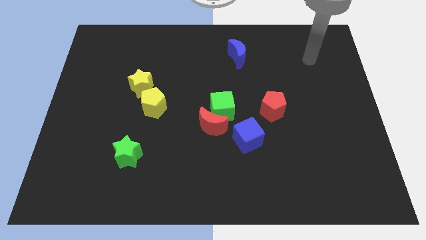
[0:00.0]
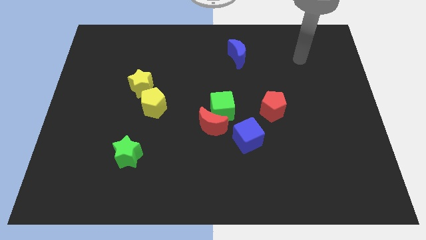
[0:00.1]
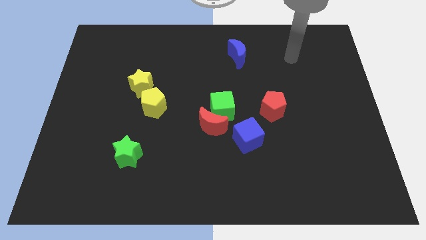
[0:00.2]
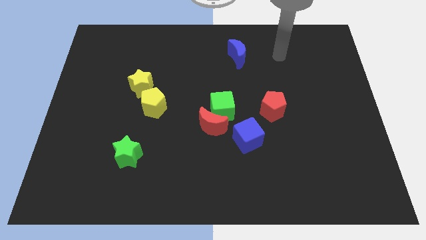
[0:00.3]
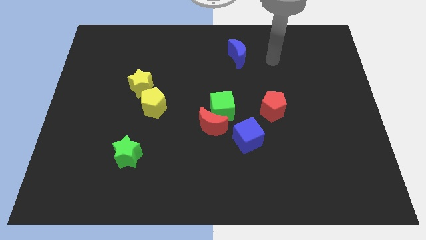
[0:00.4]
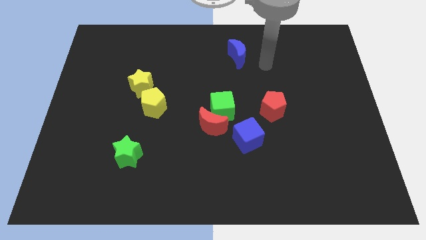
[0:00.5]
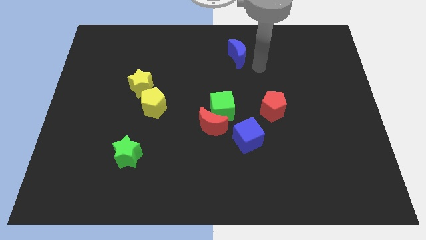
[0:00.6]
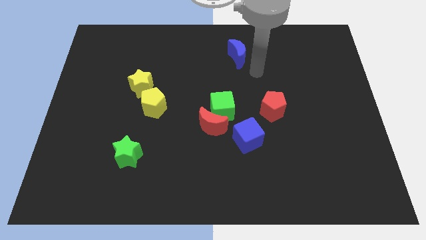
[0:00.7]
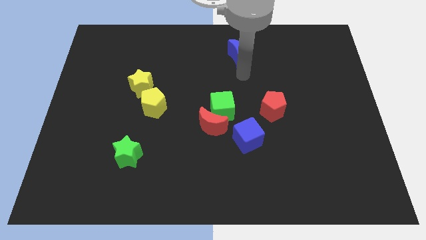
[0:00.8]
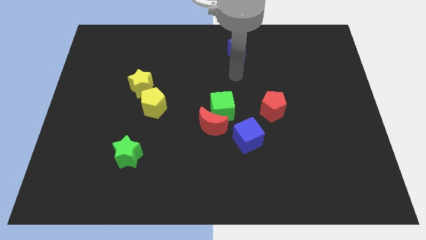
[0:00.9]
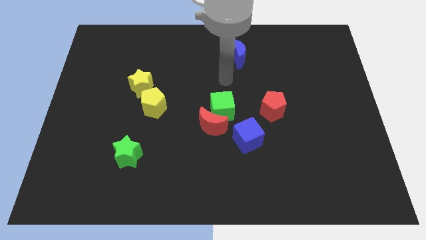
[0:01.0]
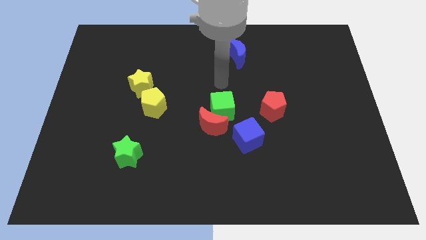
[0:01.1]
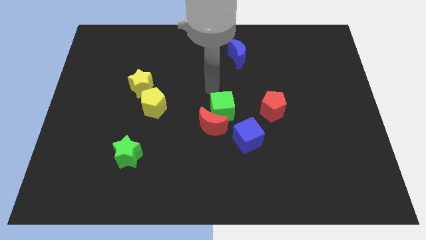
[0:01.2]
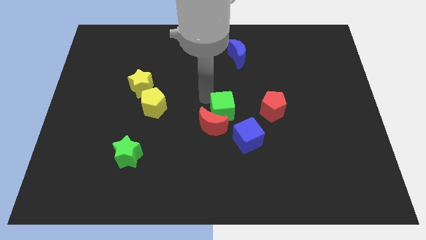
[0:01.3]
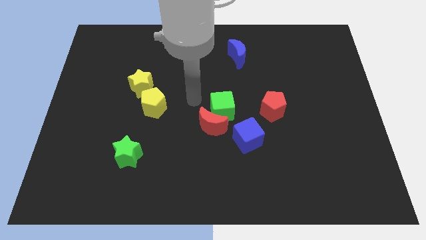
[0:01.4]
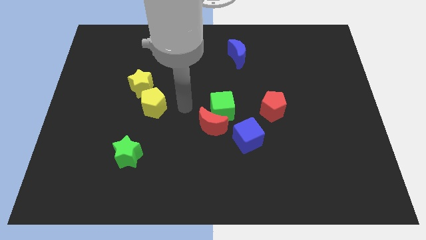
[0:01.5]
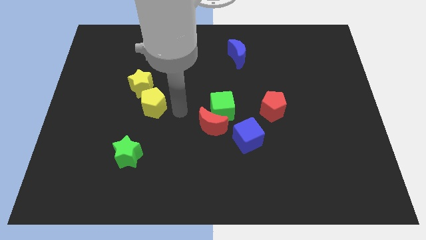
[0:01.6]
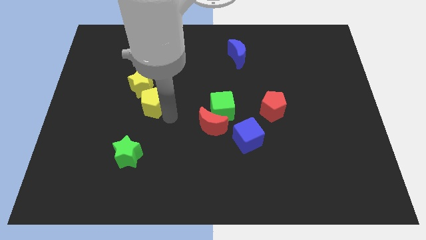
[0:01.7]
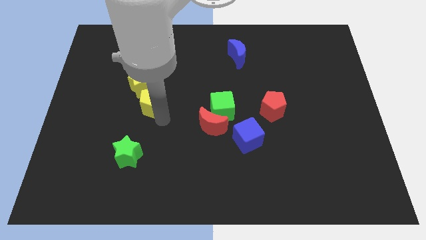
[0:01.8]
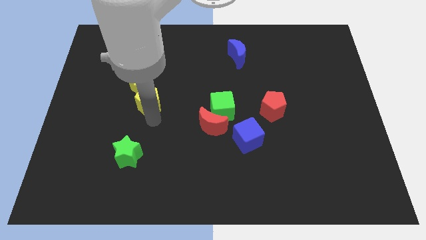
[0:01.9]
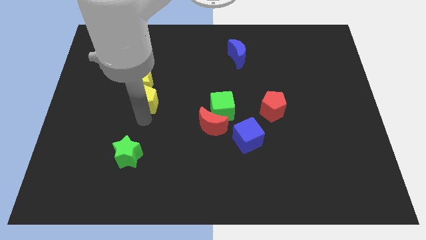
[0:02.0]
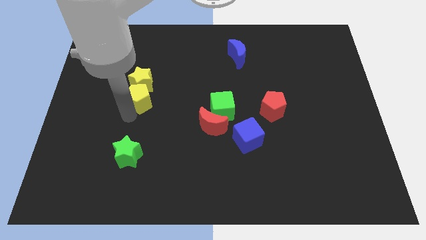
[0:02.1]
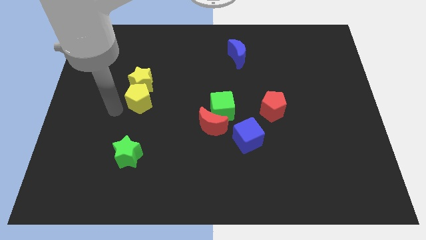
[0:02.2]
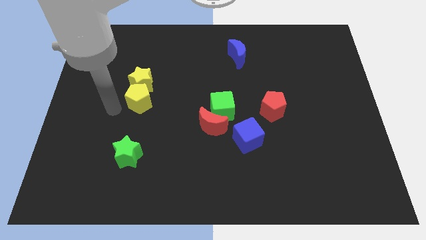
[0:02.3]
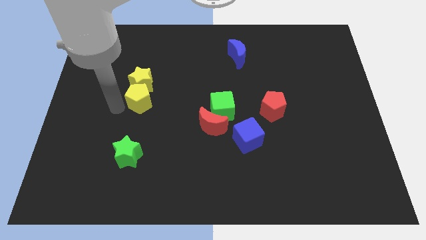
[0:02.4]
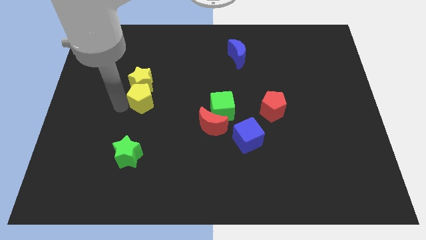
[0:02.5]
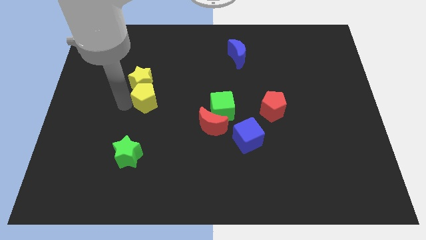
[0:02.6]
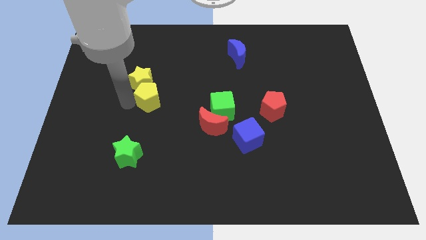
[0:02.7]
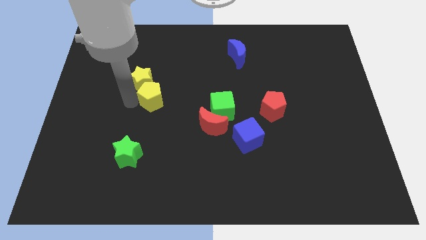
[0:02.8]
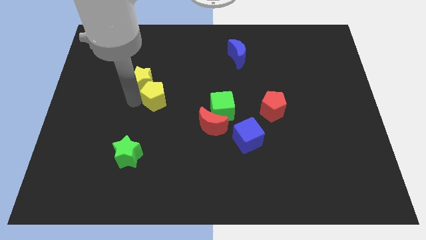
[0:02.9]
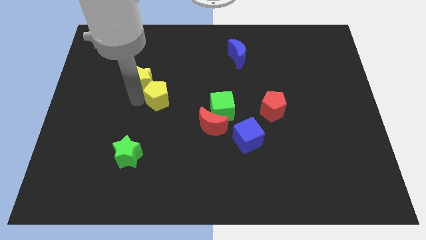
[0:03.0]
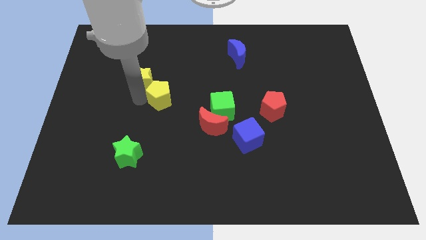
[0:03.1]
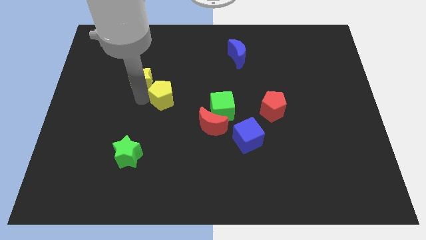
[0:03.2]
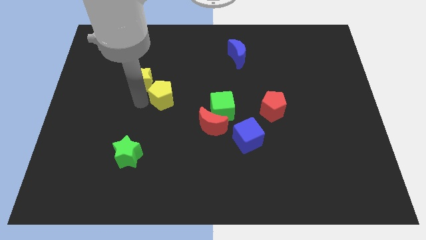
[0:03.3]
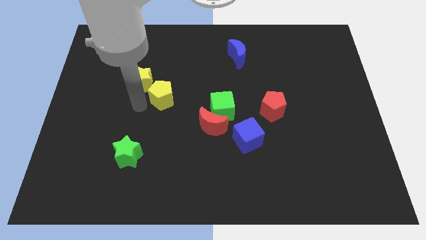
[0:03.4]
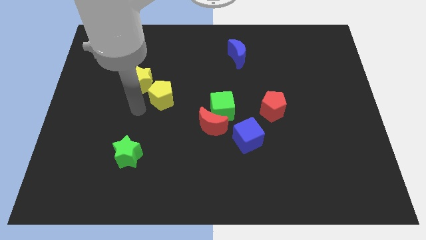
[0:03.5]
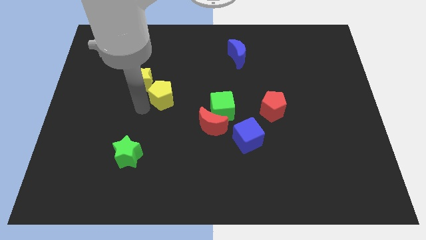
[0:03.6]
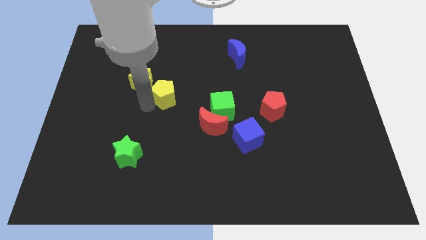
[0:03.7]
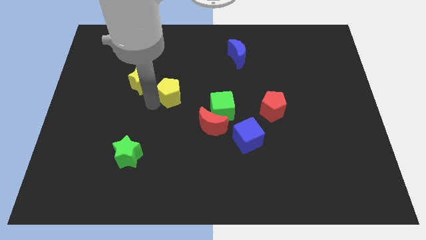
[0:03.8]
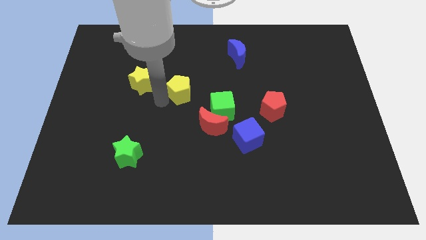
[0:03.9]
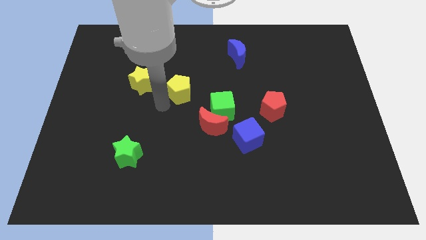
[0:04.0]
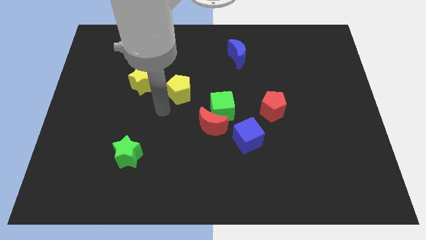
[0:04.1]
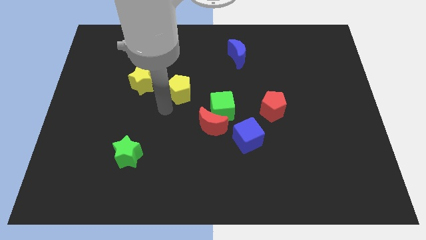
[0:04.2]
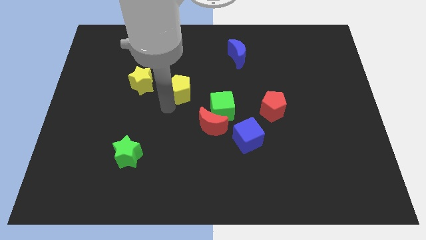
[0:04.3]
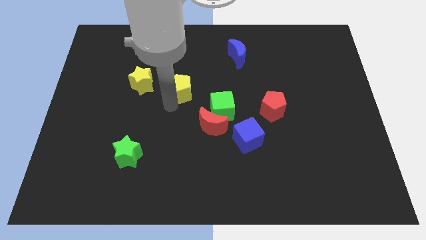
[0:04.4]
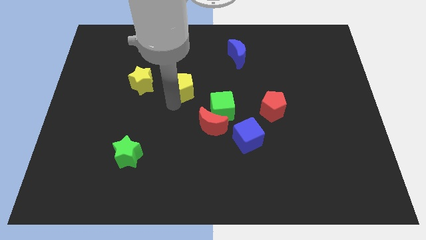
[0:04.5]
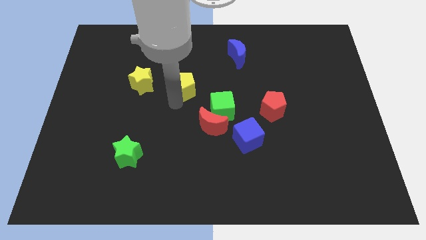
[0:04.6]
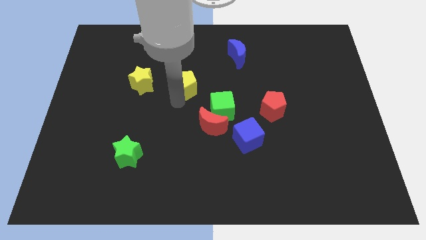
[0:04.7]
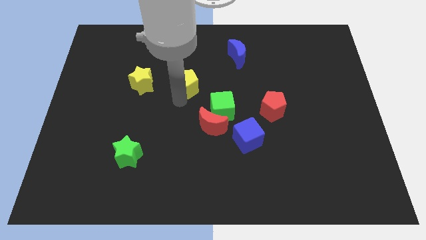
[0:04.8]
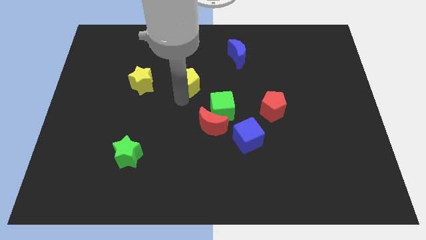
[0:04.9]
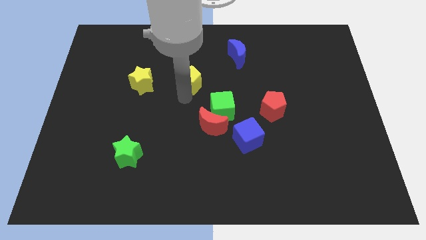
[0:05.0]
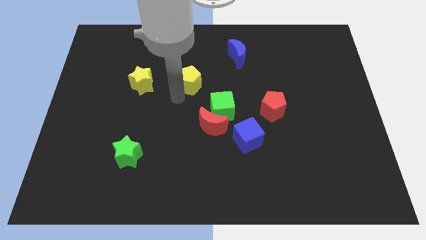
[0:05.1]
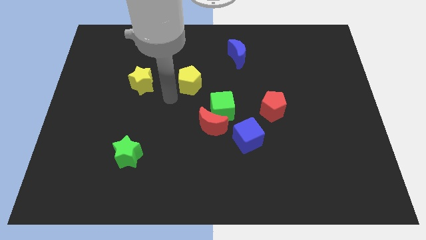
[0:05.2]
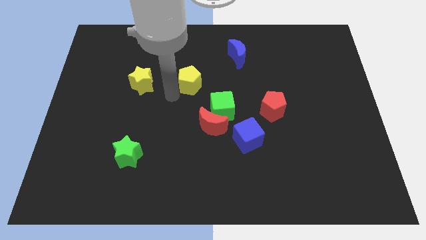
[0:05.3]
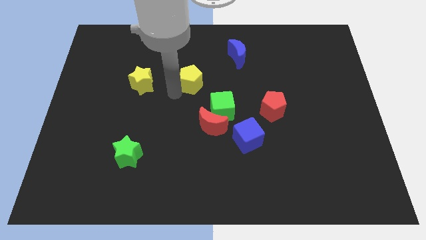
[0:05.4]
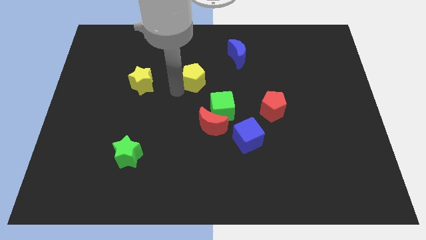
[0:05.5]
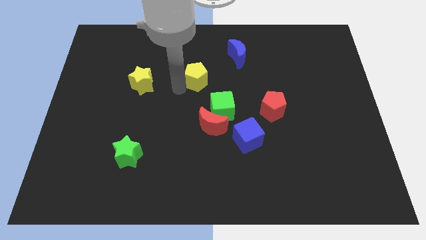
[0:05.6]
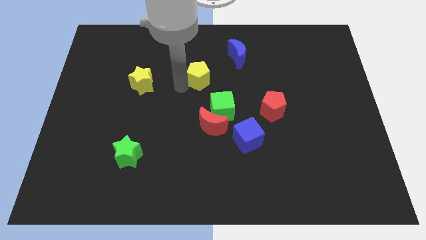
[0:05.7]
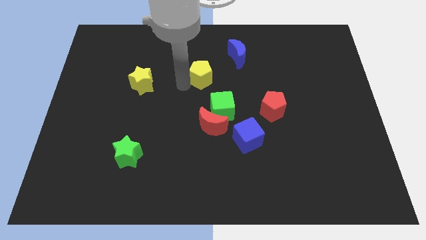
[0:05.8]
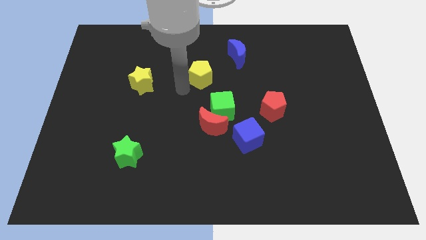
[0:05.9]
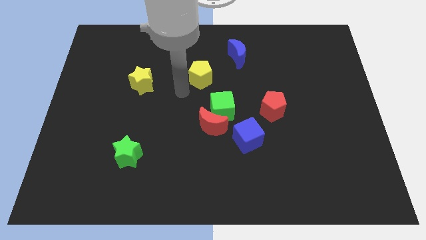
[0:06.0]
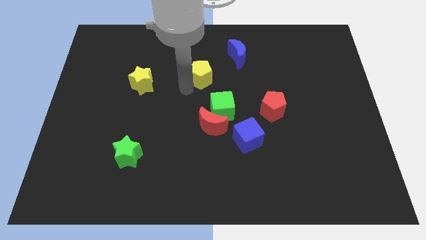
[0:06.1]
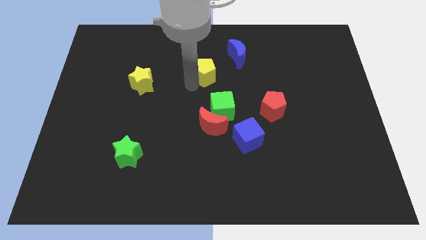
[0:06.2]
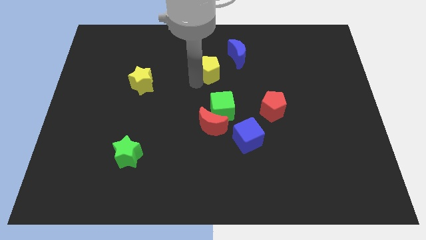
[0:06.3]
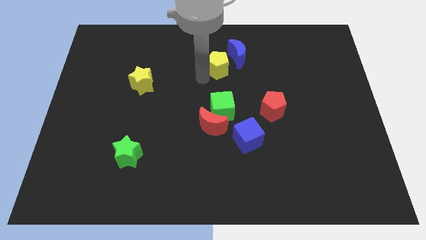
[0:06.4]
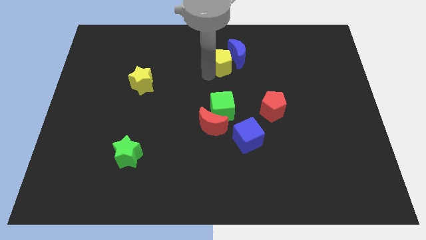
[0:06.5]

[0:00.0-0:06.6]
move the yellow pentagon next to the blue moon

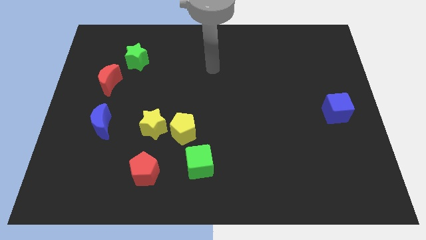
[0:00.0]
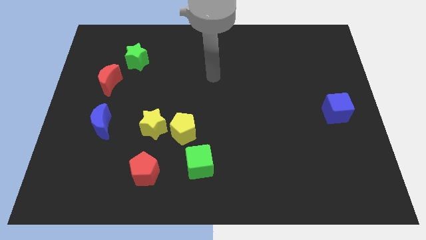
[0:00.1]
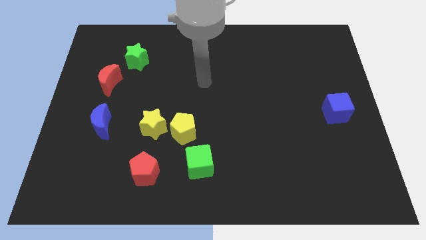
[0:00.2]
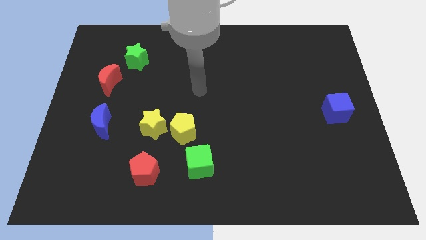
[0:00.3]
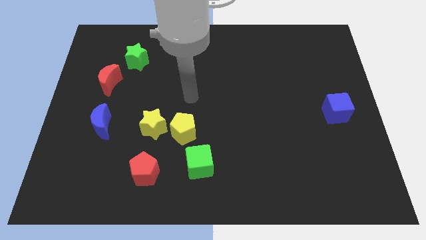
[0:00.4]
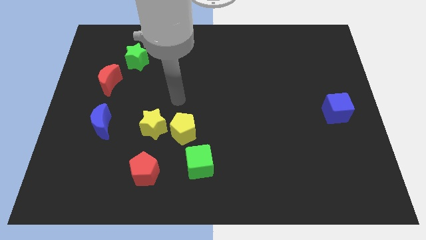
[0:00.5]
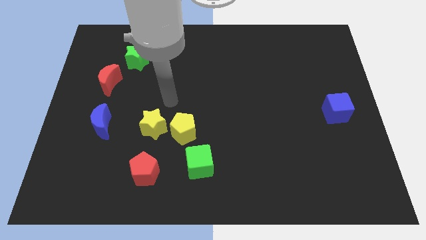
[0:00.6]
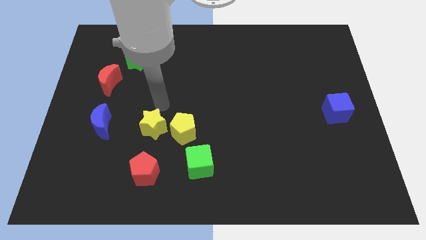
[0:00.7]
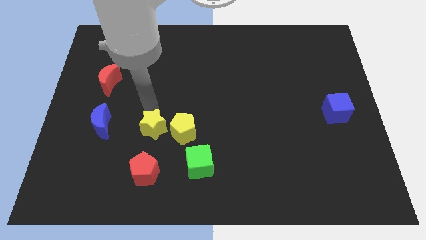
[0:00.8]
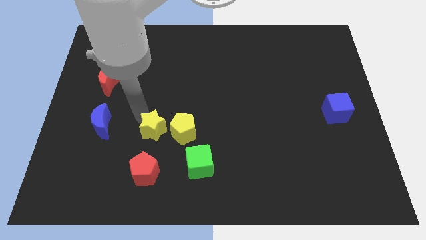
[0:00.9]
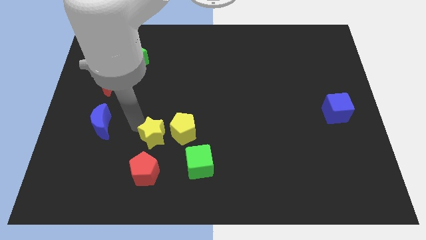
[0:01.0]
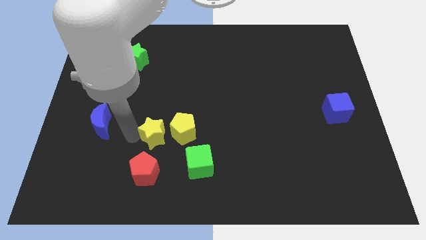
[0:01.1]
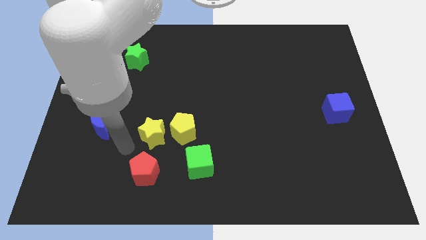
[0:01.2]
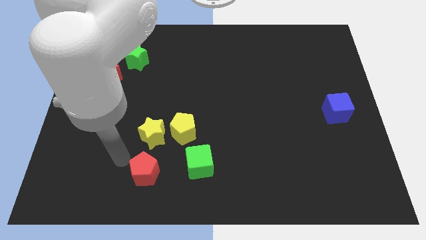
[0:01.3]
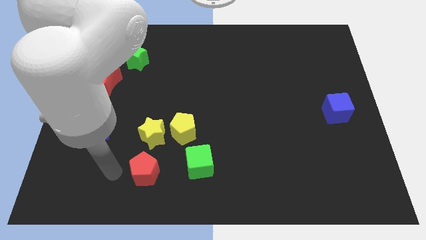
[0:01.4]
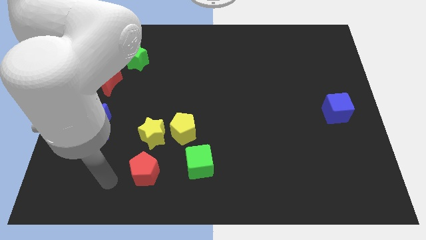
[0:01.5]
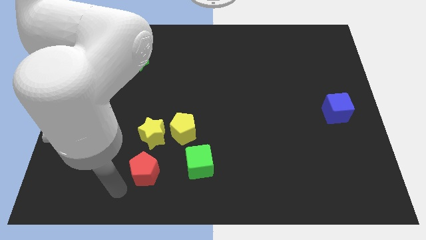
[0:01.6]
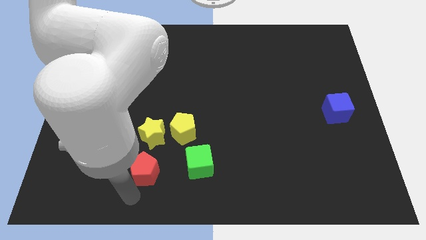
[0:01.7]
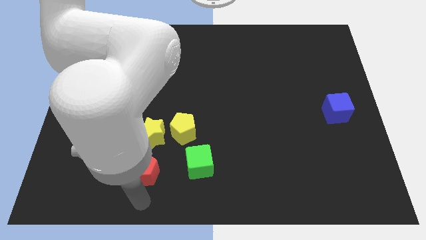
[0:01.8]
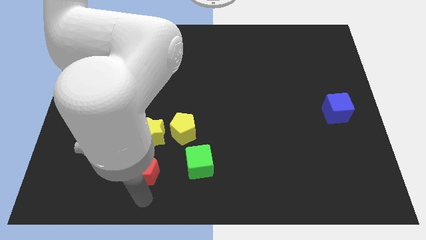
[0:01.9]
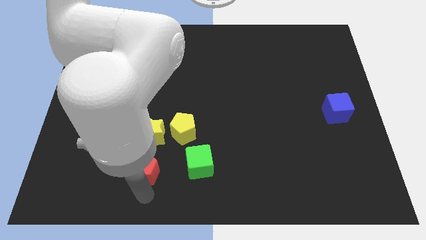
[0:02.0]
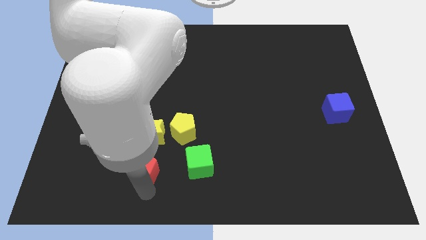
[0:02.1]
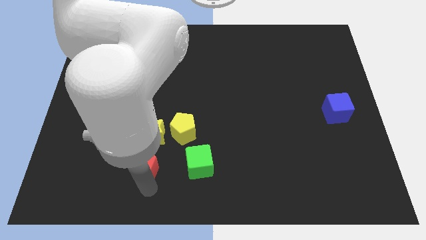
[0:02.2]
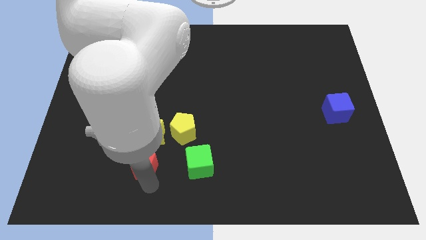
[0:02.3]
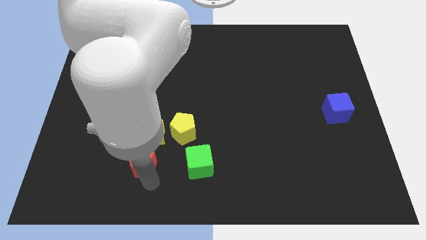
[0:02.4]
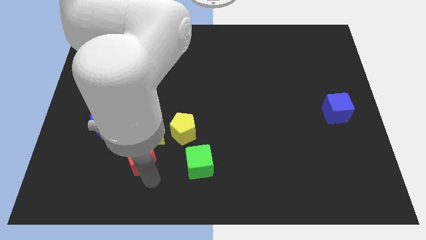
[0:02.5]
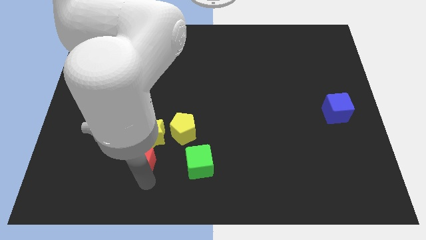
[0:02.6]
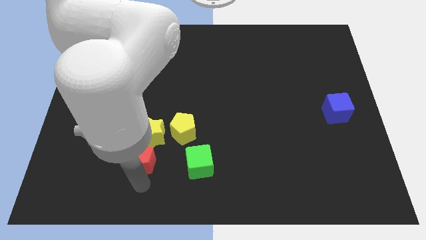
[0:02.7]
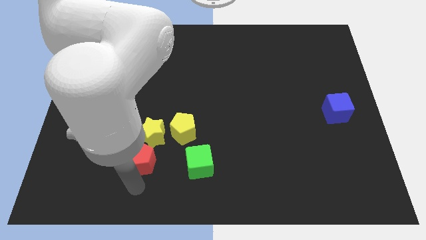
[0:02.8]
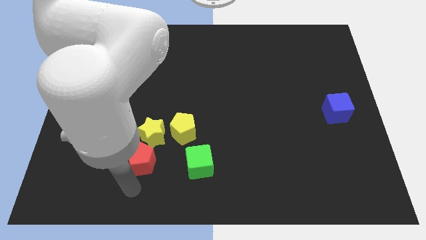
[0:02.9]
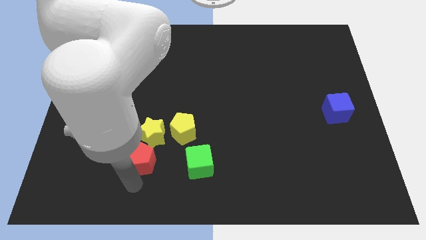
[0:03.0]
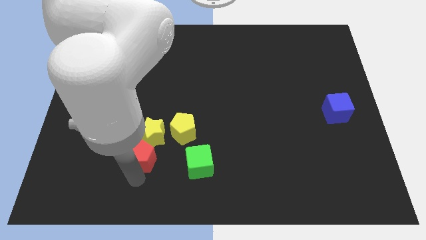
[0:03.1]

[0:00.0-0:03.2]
push the red pentagon close to the yellow star
